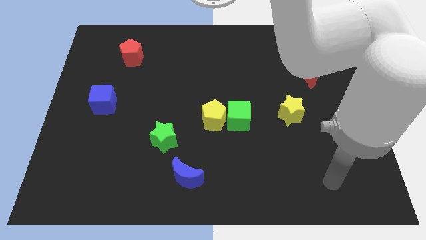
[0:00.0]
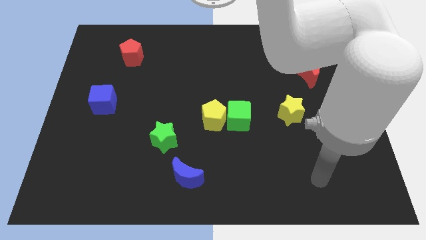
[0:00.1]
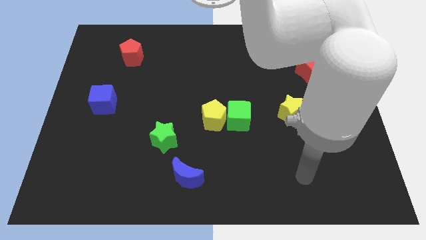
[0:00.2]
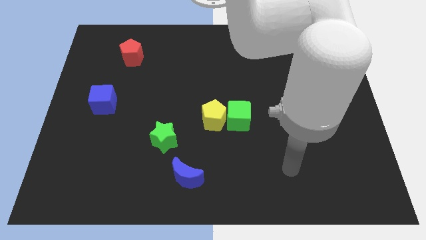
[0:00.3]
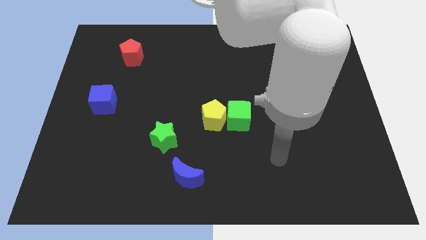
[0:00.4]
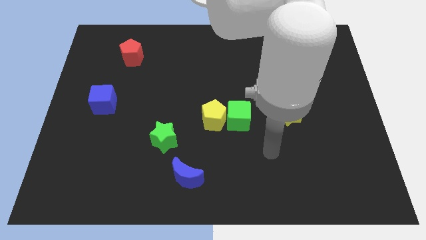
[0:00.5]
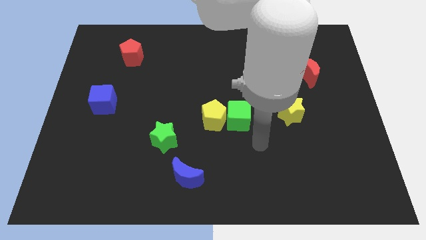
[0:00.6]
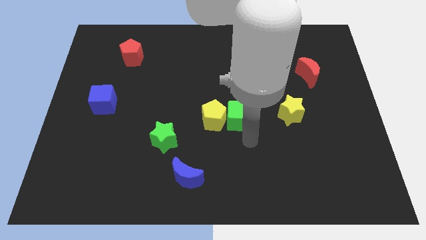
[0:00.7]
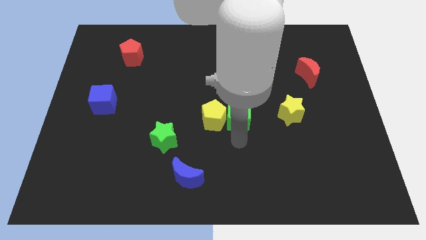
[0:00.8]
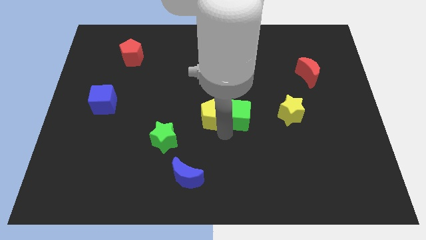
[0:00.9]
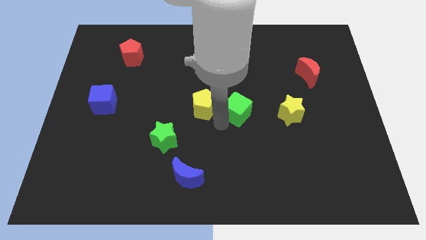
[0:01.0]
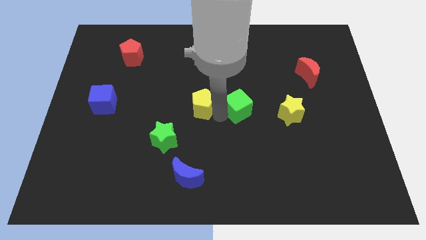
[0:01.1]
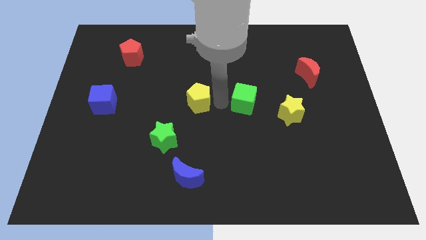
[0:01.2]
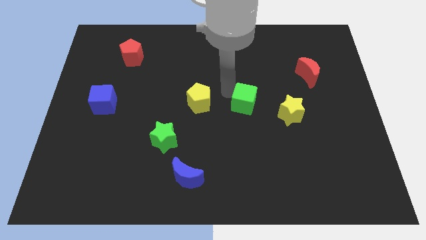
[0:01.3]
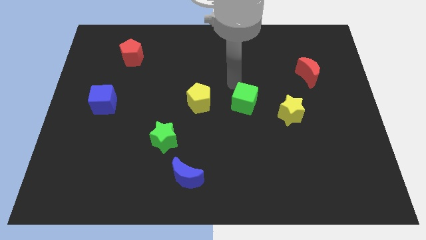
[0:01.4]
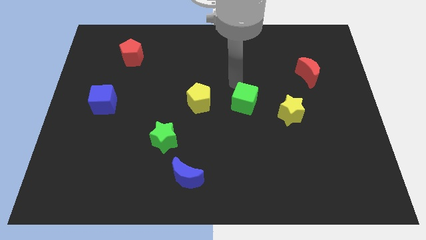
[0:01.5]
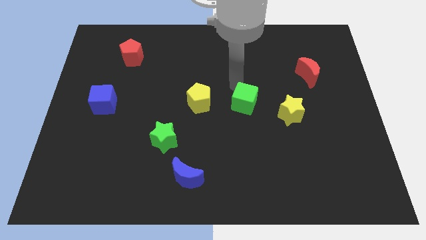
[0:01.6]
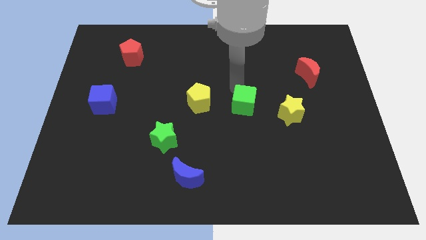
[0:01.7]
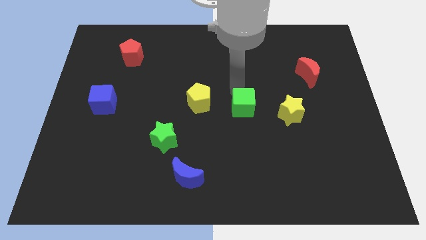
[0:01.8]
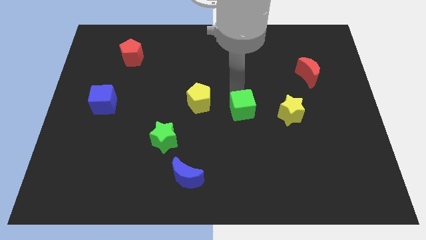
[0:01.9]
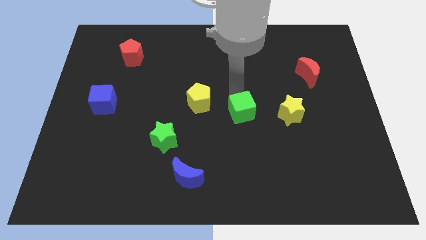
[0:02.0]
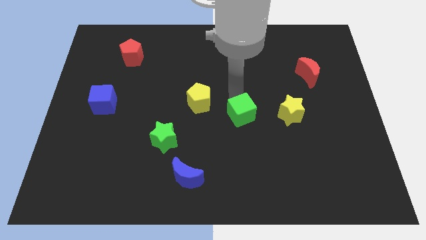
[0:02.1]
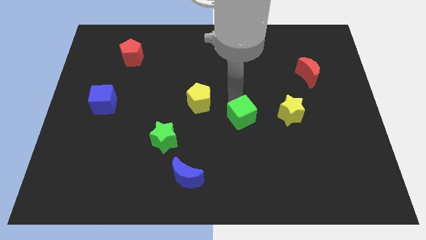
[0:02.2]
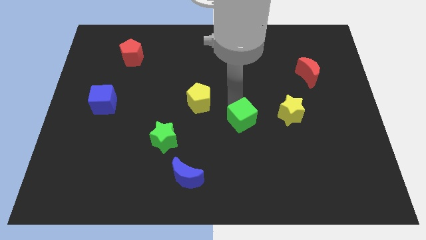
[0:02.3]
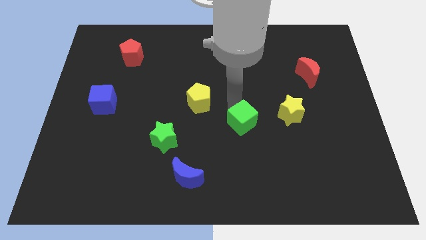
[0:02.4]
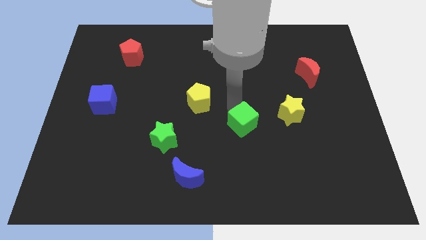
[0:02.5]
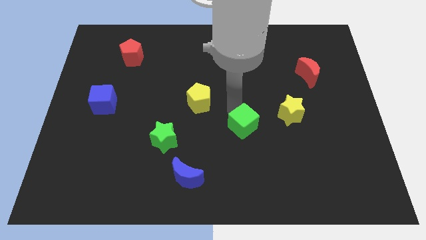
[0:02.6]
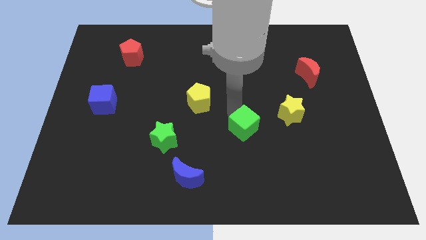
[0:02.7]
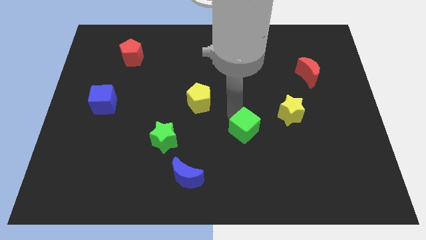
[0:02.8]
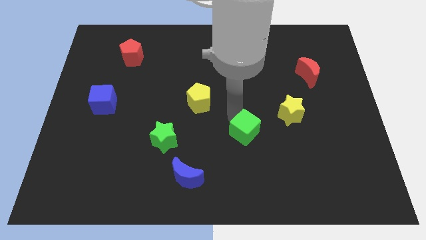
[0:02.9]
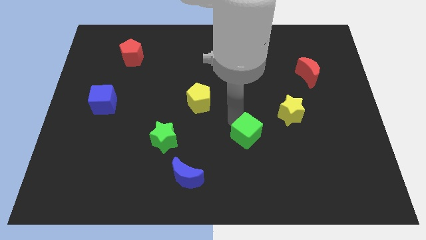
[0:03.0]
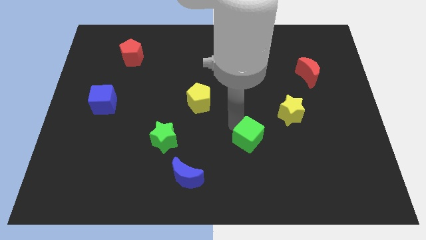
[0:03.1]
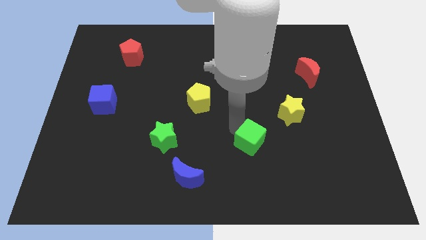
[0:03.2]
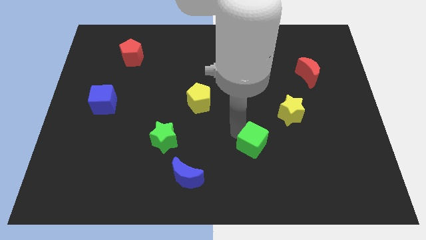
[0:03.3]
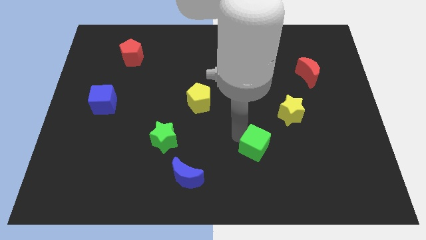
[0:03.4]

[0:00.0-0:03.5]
slide the green cube down and then right slightly

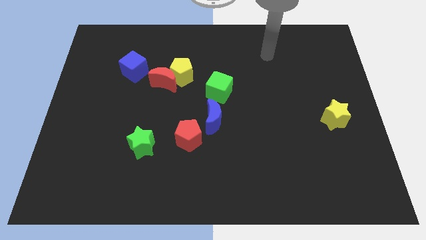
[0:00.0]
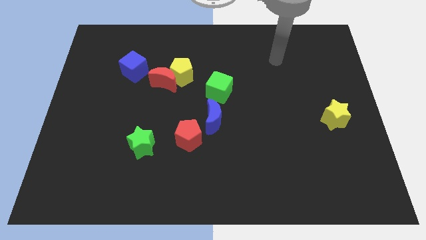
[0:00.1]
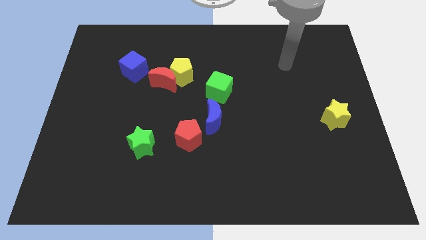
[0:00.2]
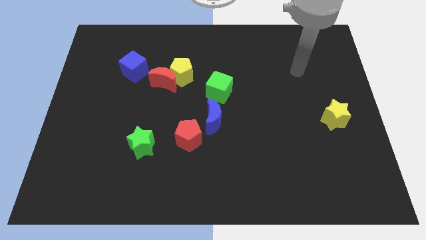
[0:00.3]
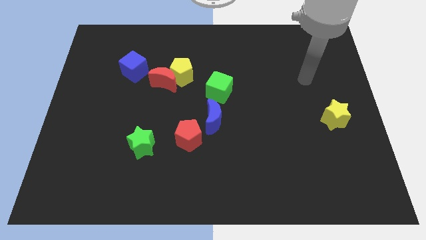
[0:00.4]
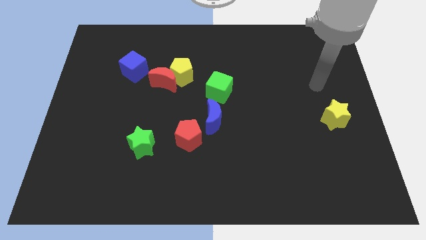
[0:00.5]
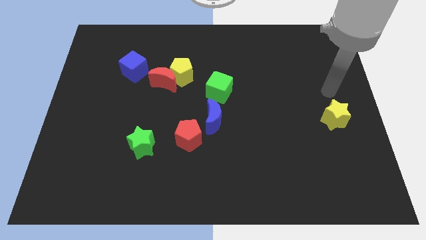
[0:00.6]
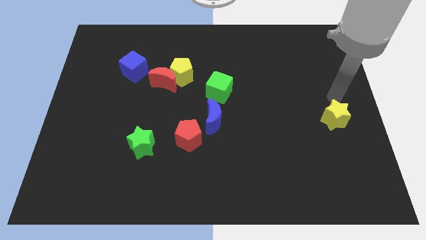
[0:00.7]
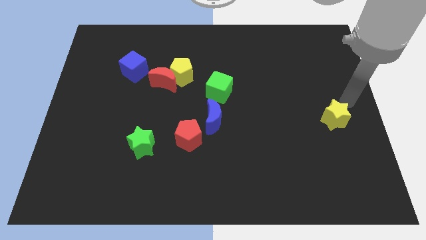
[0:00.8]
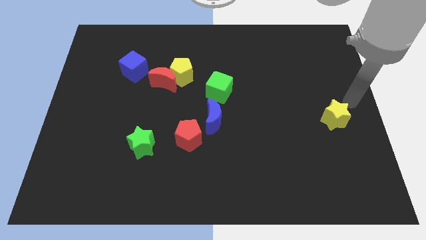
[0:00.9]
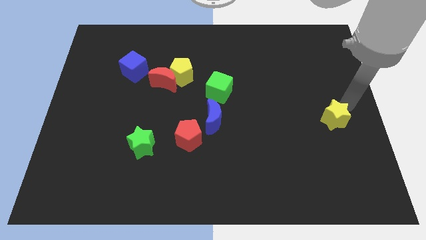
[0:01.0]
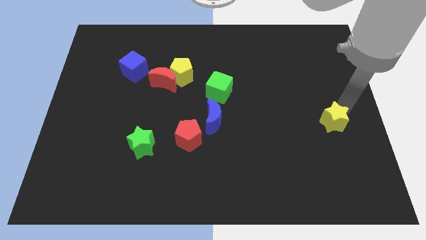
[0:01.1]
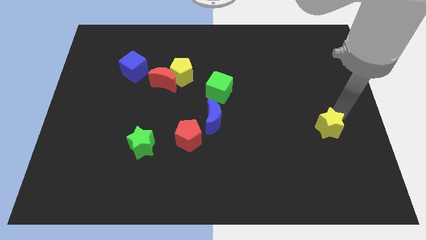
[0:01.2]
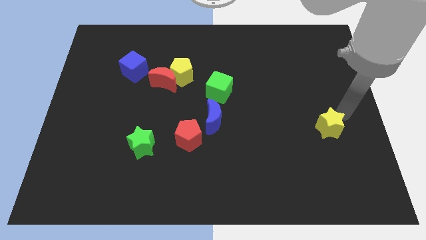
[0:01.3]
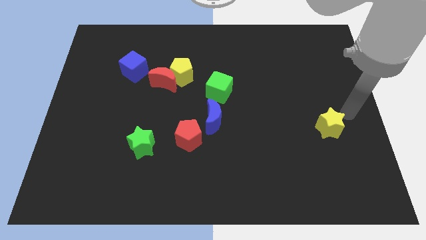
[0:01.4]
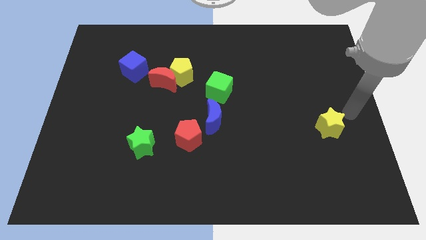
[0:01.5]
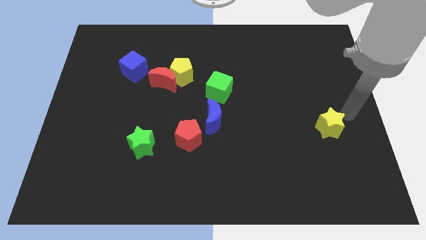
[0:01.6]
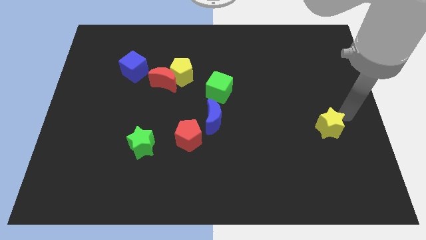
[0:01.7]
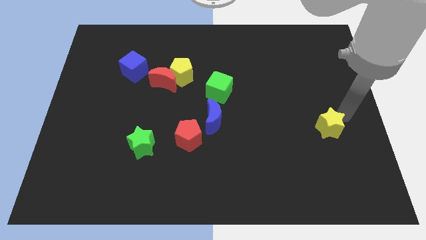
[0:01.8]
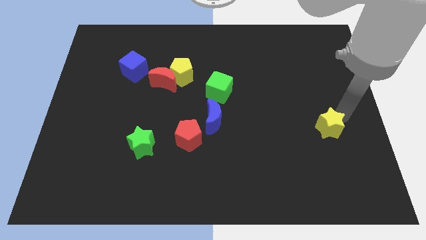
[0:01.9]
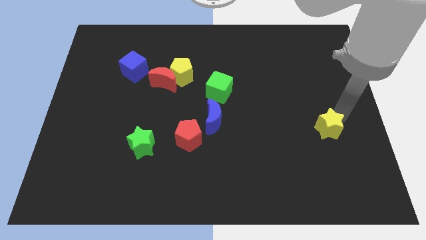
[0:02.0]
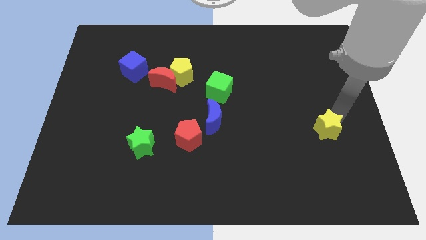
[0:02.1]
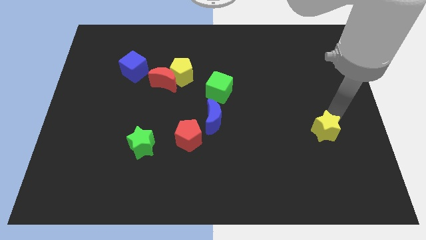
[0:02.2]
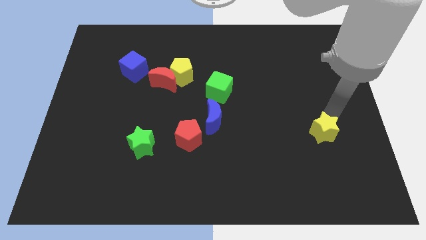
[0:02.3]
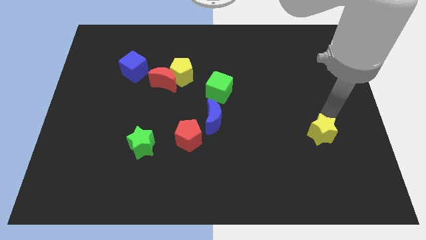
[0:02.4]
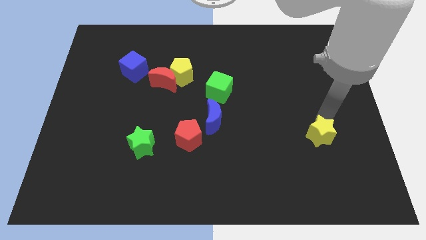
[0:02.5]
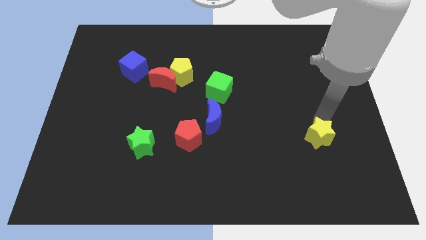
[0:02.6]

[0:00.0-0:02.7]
push the yellow star downwards and left a bit

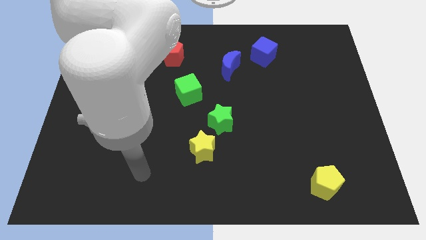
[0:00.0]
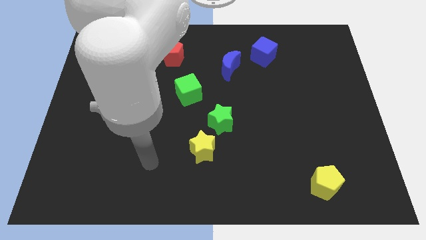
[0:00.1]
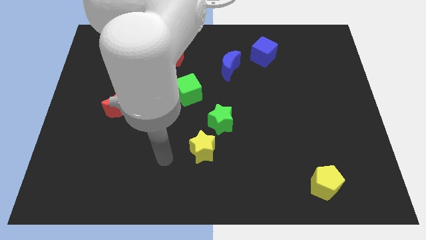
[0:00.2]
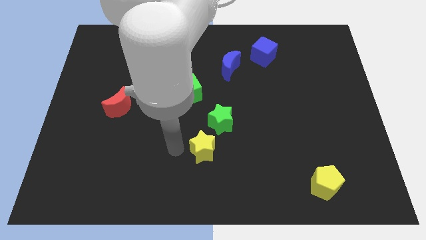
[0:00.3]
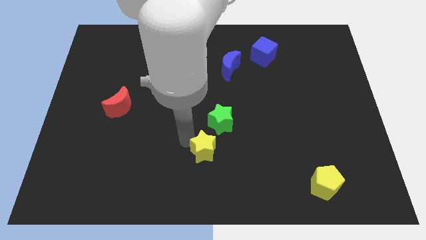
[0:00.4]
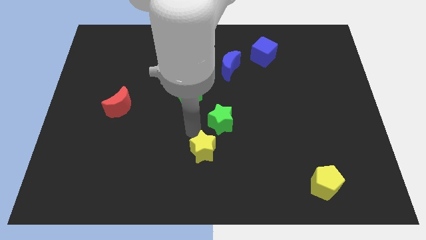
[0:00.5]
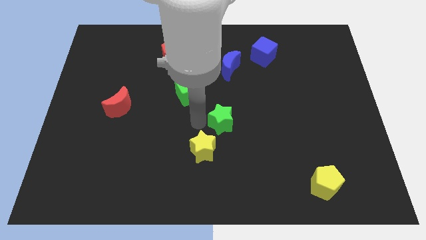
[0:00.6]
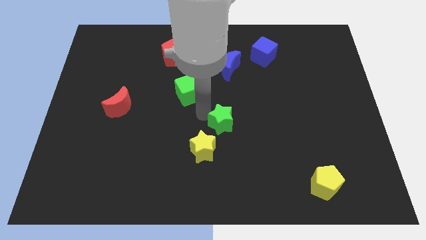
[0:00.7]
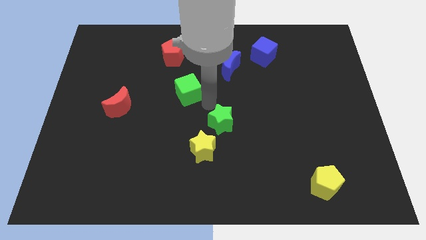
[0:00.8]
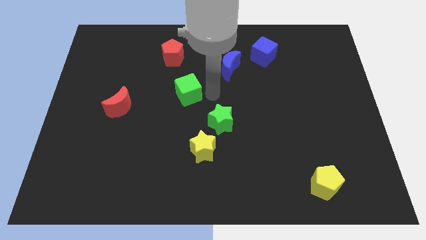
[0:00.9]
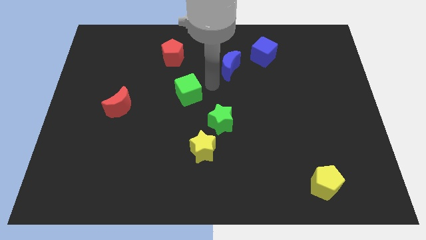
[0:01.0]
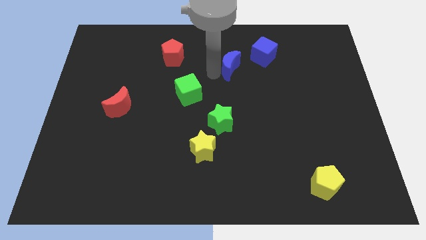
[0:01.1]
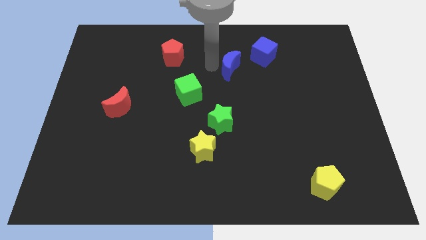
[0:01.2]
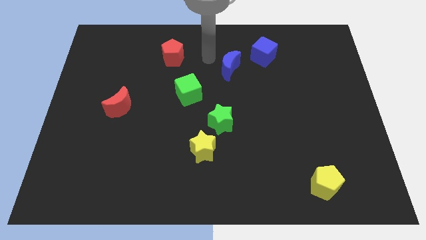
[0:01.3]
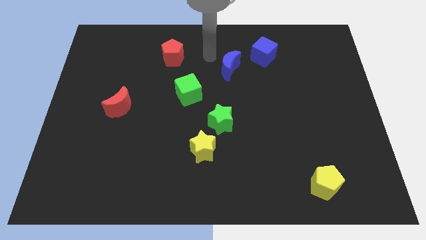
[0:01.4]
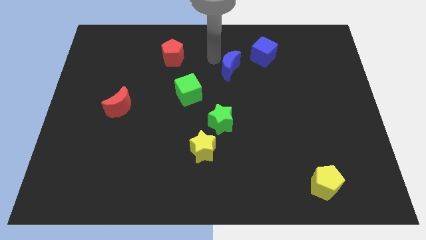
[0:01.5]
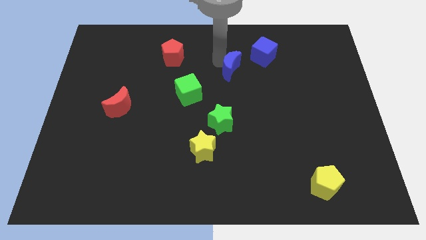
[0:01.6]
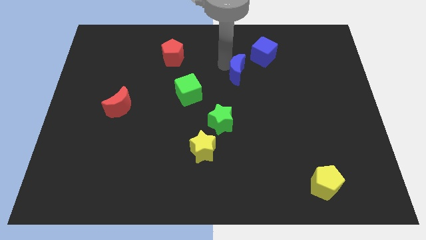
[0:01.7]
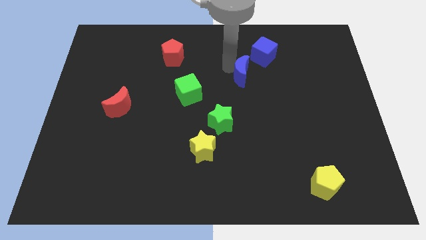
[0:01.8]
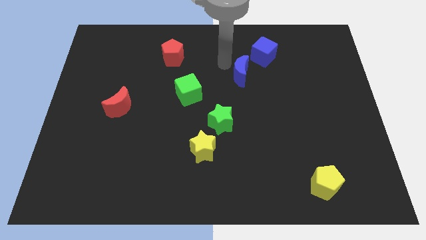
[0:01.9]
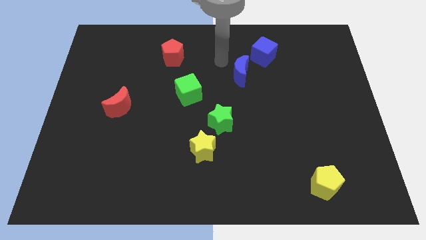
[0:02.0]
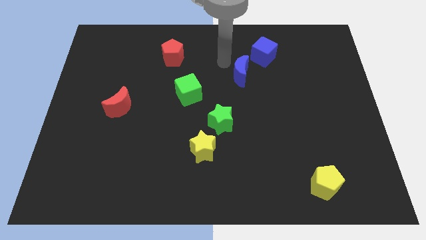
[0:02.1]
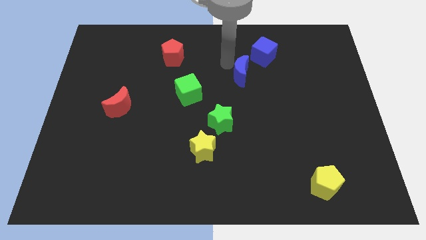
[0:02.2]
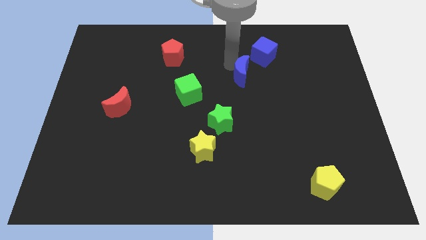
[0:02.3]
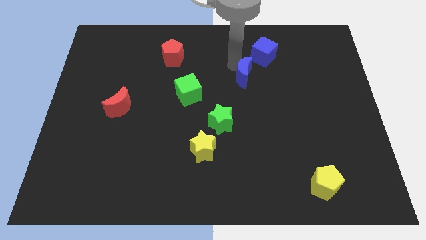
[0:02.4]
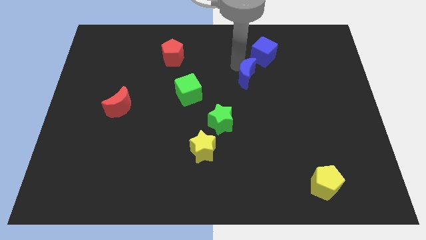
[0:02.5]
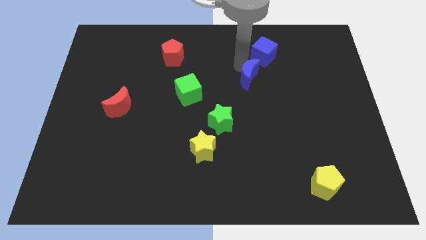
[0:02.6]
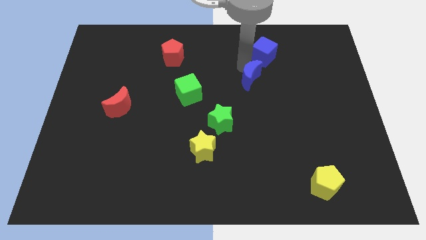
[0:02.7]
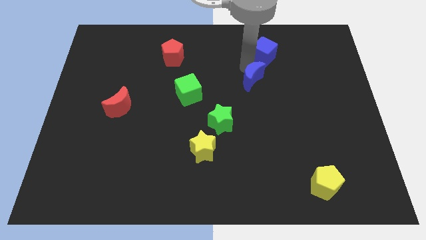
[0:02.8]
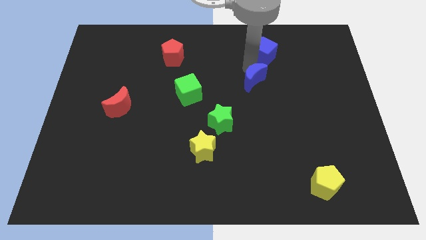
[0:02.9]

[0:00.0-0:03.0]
slide the blue moon down and then right a little
